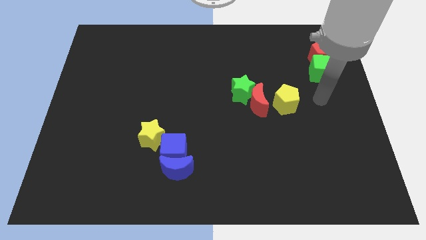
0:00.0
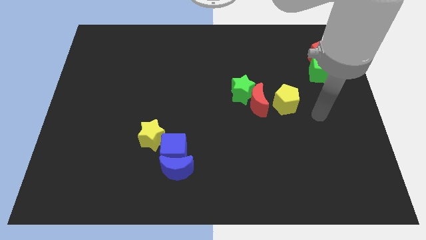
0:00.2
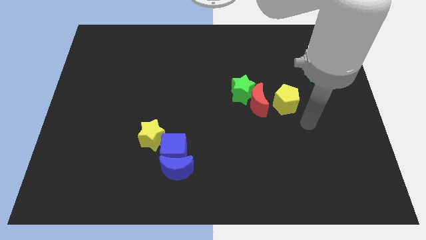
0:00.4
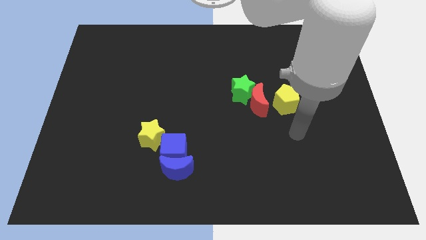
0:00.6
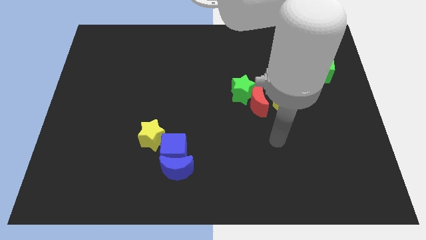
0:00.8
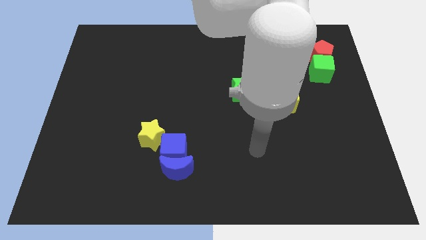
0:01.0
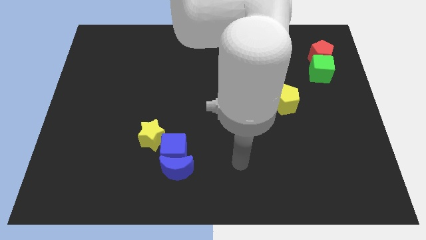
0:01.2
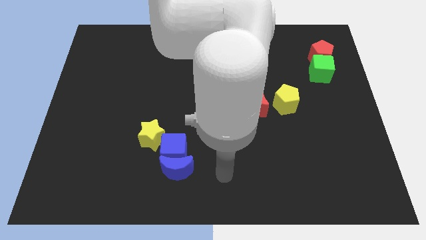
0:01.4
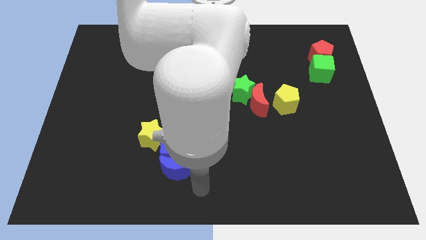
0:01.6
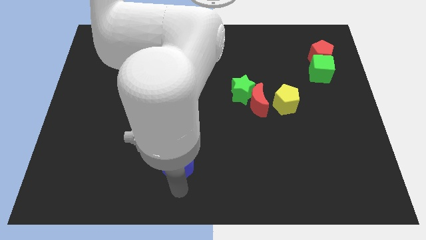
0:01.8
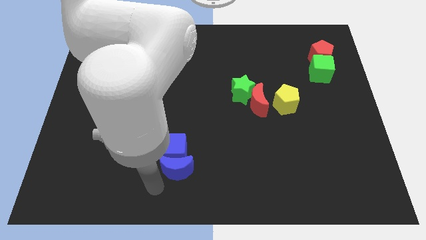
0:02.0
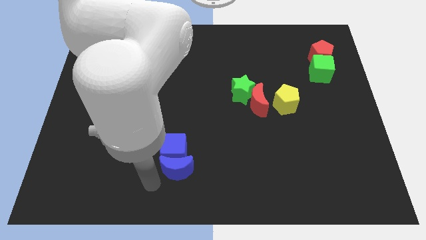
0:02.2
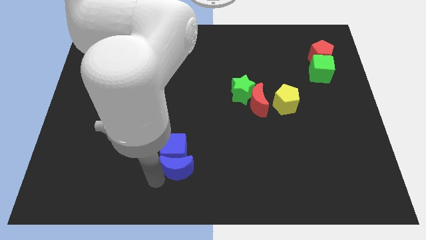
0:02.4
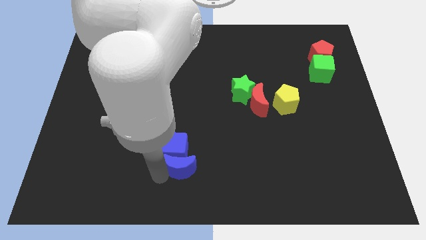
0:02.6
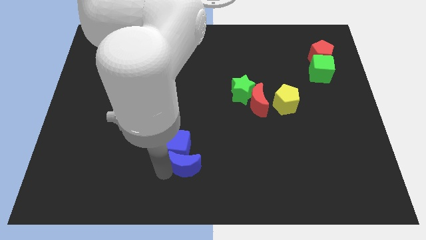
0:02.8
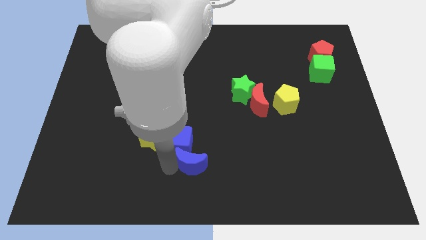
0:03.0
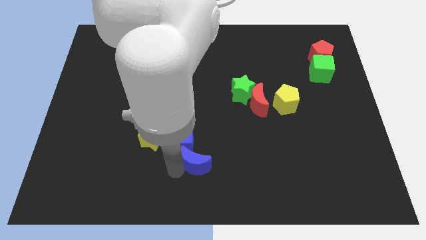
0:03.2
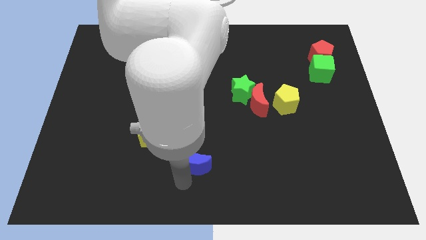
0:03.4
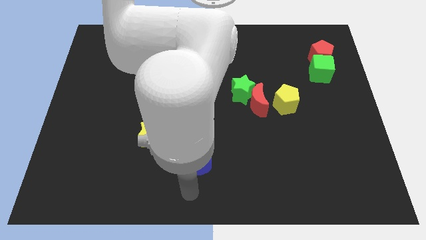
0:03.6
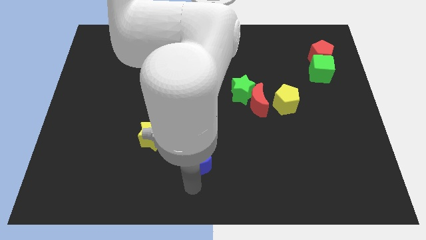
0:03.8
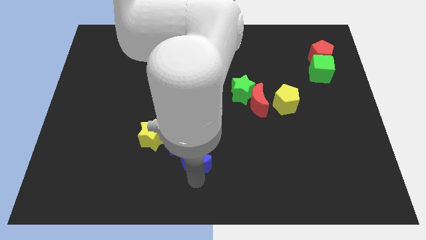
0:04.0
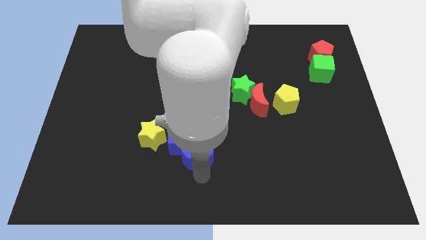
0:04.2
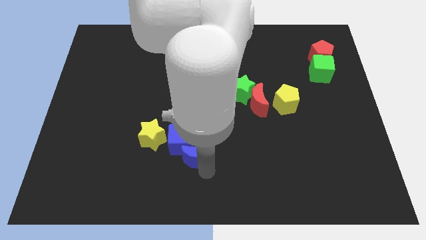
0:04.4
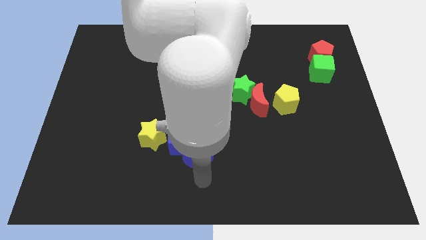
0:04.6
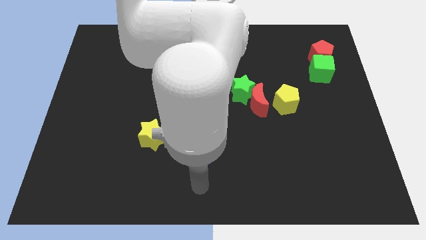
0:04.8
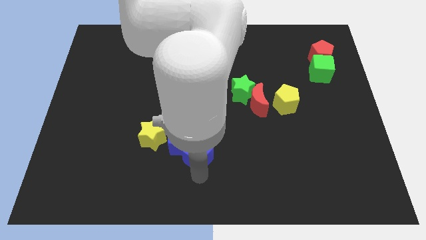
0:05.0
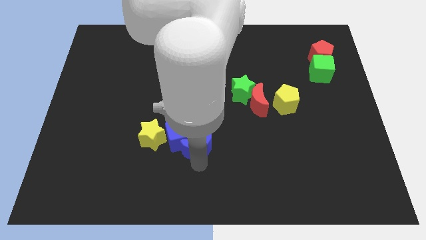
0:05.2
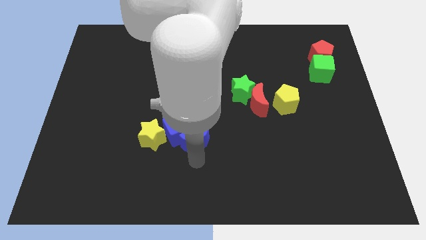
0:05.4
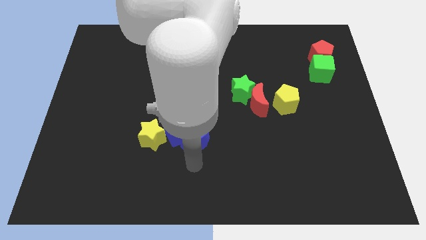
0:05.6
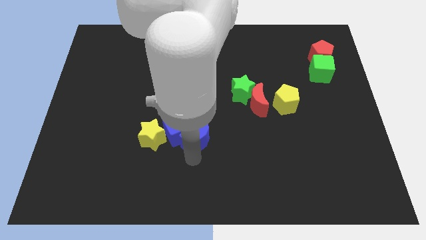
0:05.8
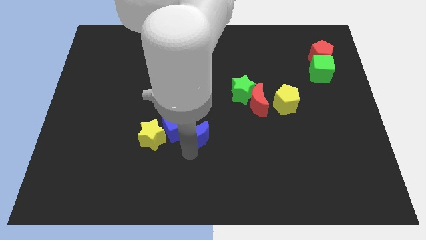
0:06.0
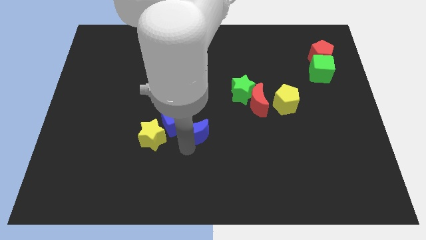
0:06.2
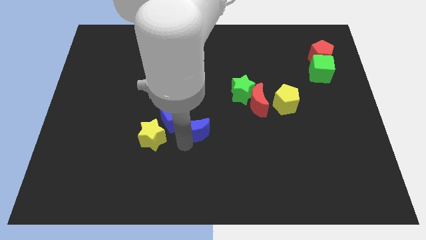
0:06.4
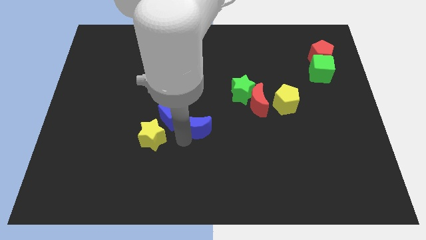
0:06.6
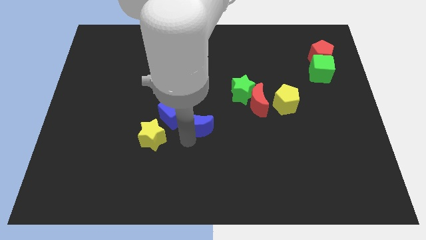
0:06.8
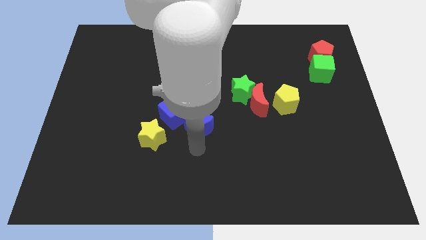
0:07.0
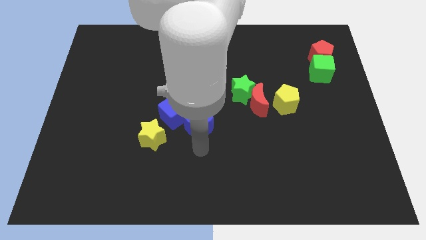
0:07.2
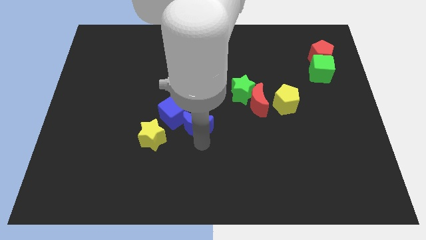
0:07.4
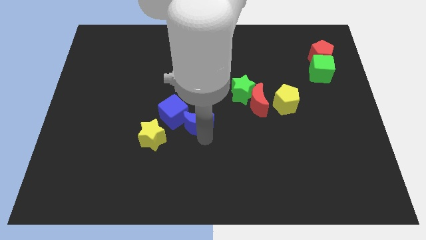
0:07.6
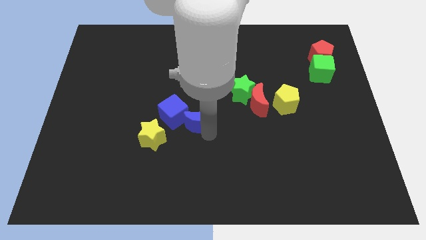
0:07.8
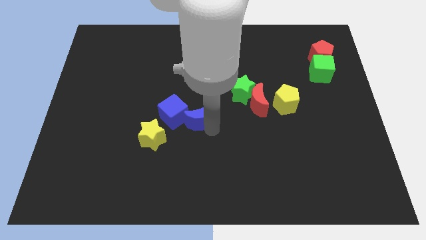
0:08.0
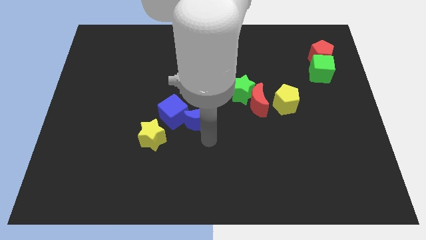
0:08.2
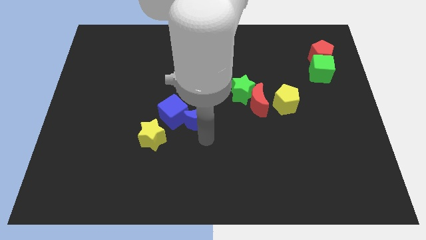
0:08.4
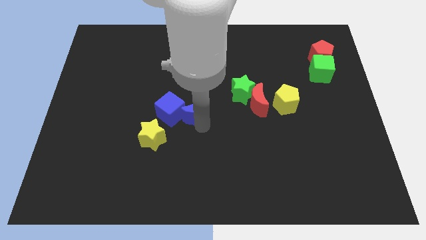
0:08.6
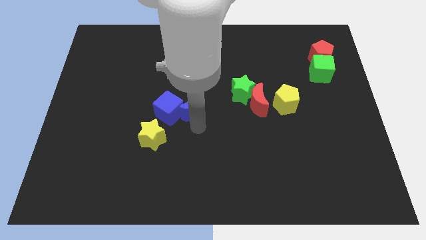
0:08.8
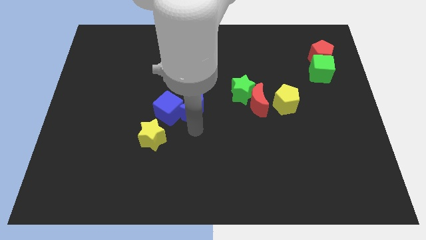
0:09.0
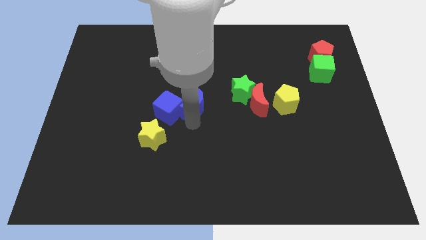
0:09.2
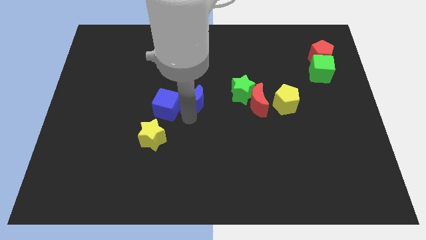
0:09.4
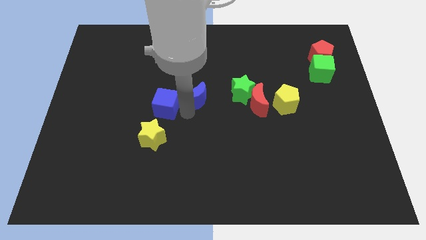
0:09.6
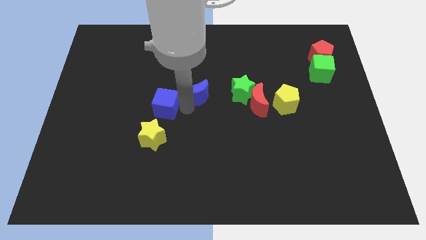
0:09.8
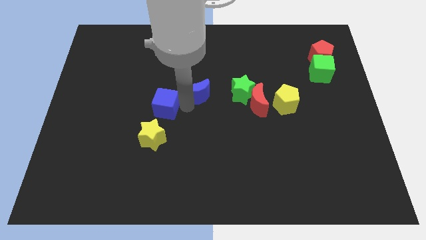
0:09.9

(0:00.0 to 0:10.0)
move the blue moon up

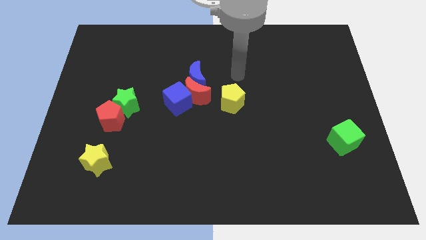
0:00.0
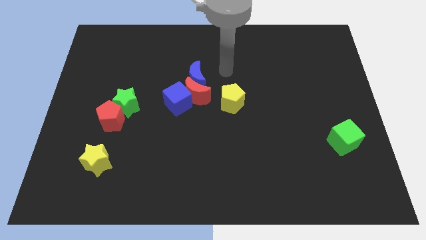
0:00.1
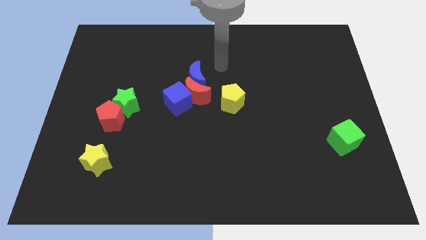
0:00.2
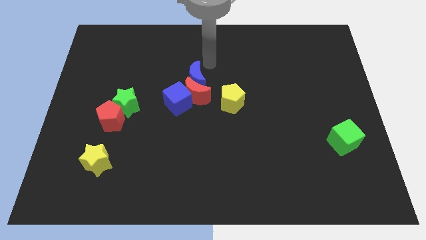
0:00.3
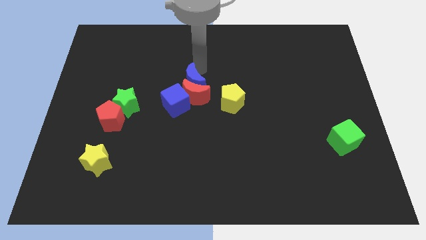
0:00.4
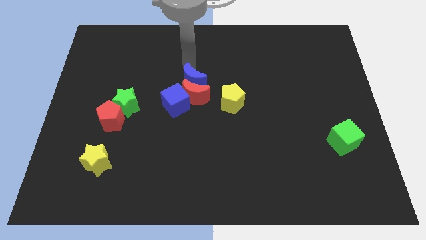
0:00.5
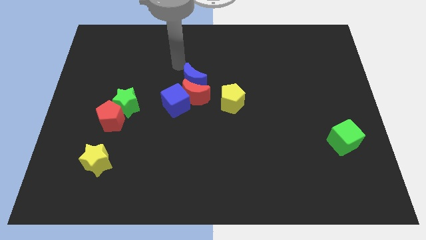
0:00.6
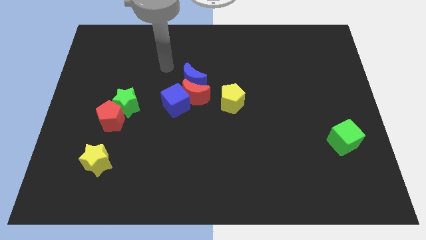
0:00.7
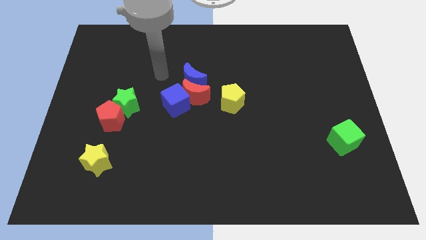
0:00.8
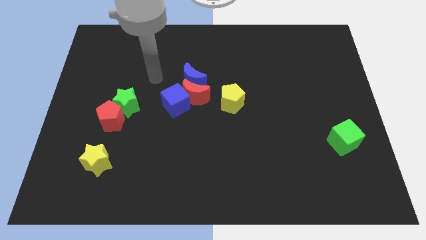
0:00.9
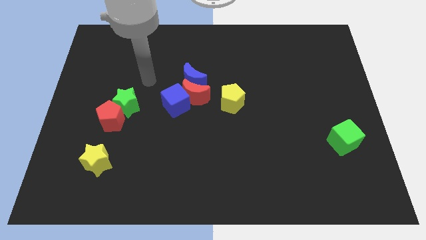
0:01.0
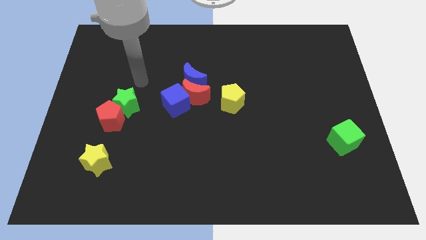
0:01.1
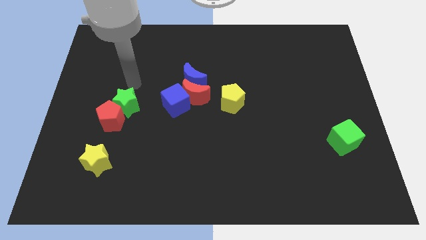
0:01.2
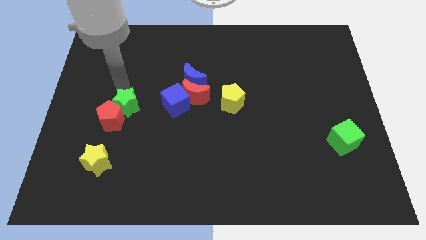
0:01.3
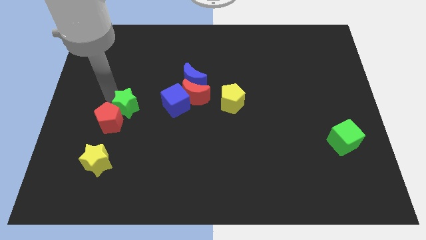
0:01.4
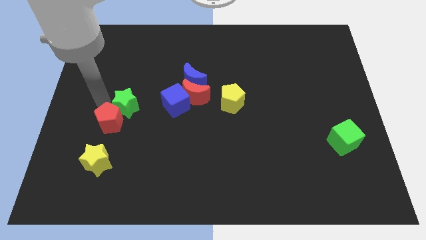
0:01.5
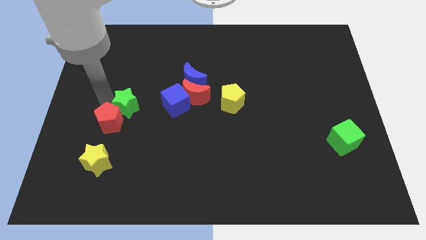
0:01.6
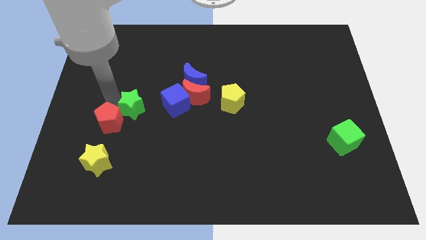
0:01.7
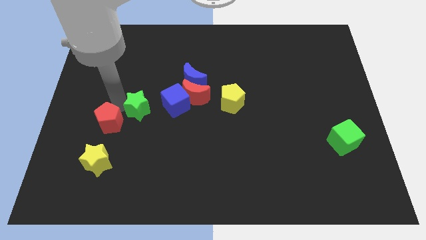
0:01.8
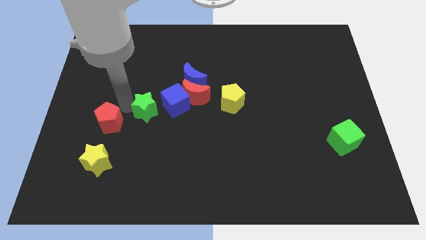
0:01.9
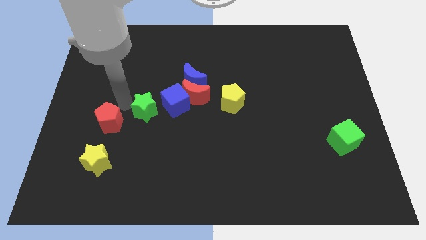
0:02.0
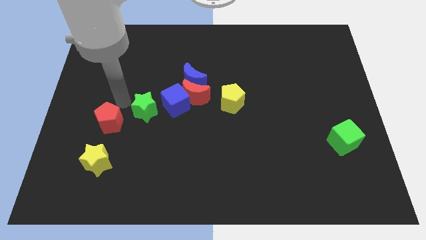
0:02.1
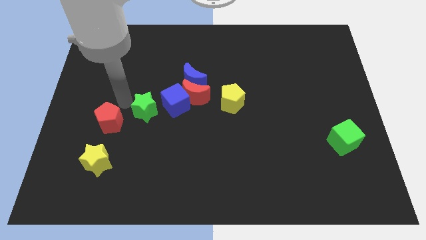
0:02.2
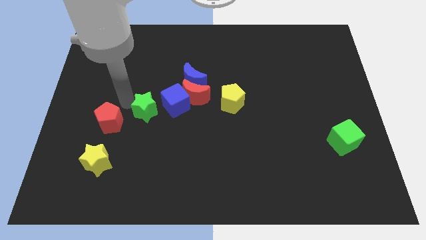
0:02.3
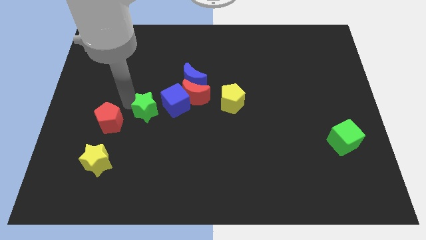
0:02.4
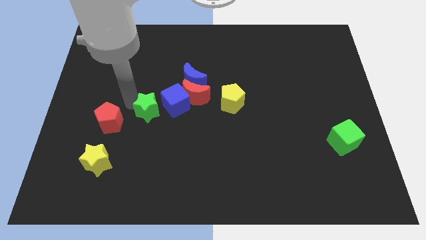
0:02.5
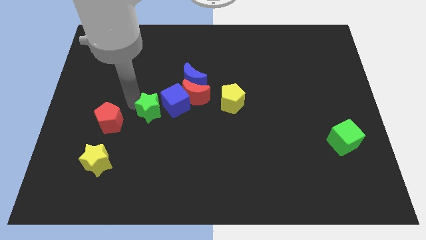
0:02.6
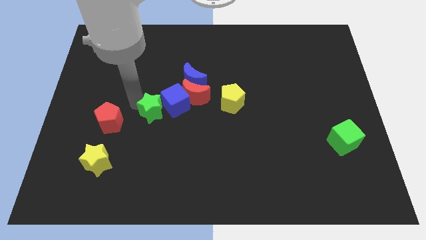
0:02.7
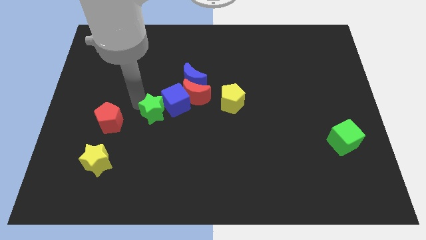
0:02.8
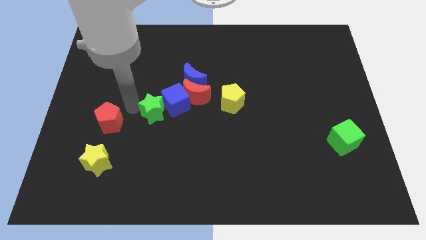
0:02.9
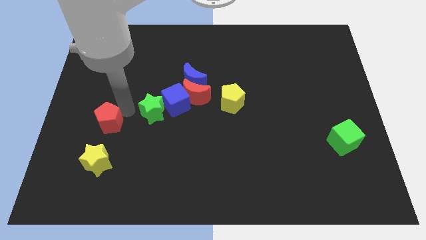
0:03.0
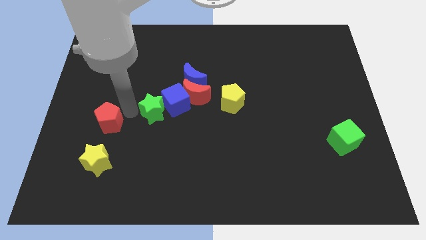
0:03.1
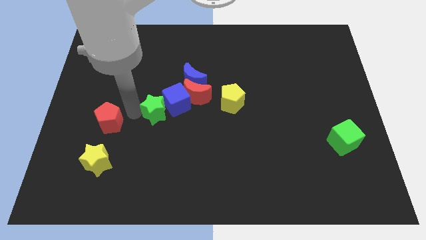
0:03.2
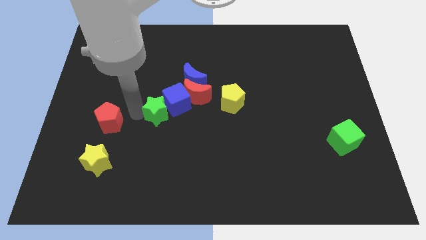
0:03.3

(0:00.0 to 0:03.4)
slightly slide the green star right
